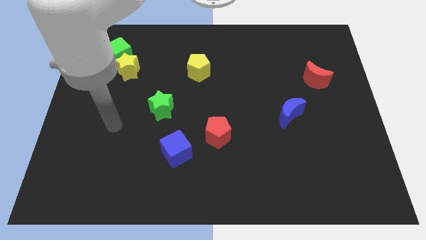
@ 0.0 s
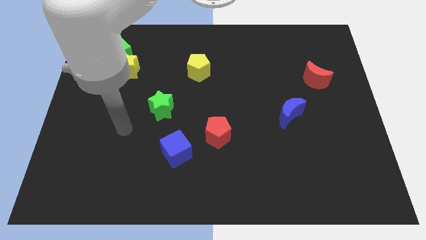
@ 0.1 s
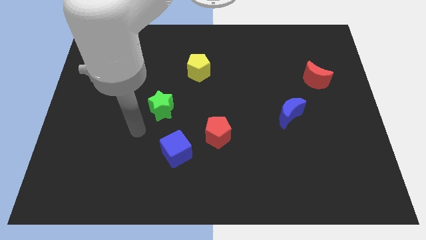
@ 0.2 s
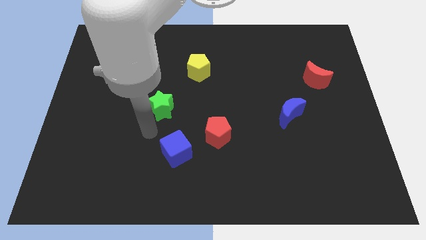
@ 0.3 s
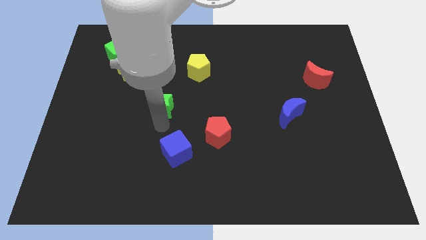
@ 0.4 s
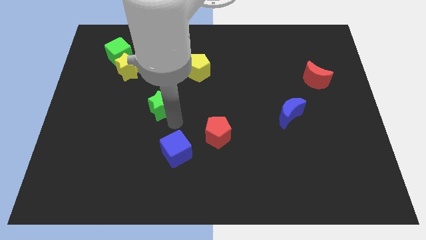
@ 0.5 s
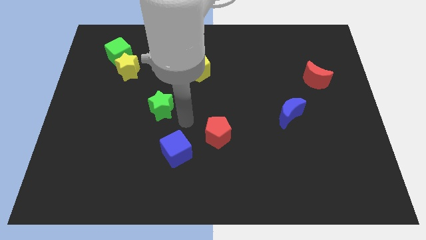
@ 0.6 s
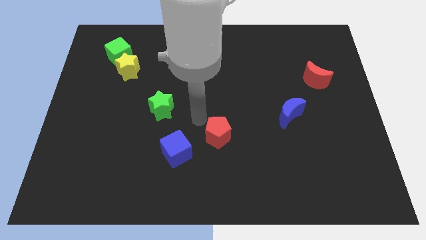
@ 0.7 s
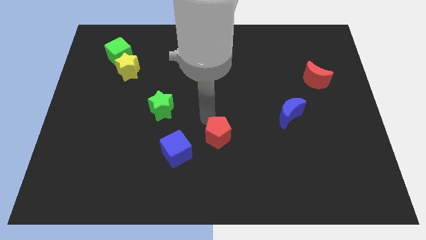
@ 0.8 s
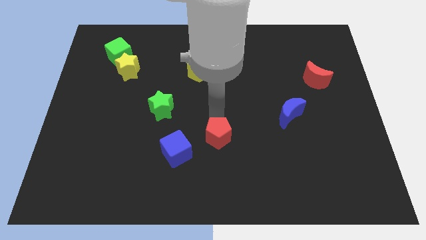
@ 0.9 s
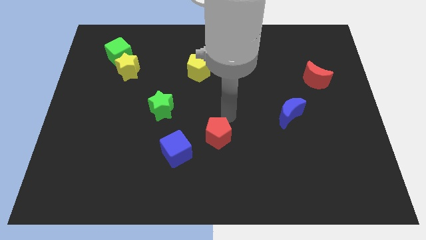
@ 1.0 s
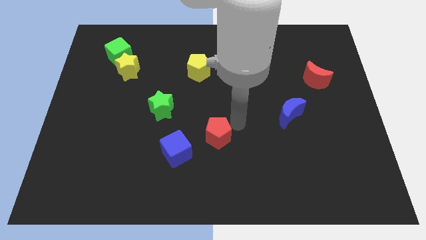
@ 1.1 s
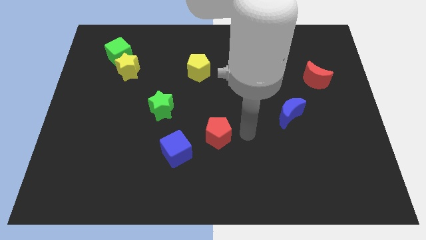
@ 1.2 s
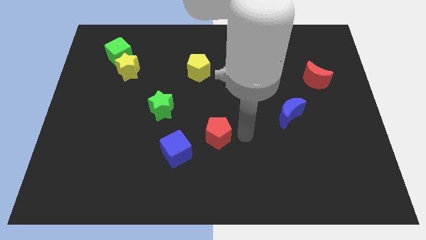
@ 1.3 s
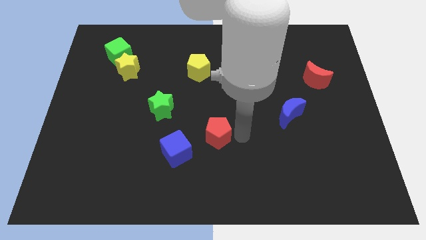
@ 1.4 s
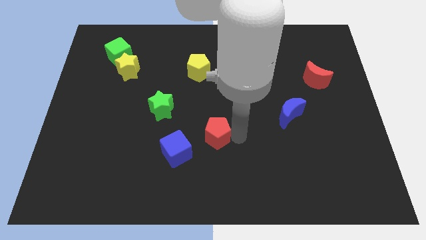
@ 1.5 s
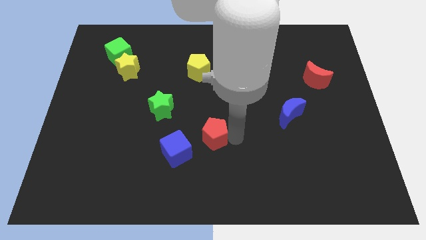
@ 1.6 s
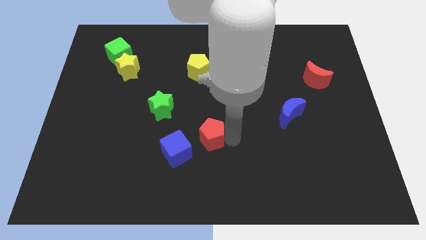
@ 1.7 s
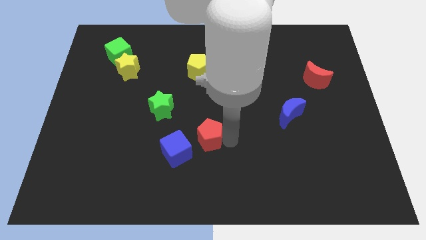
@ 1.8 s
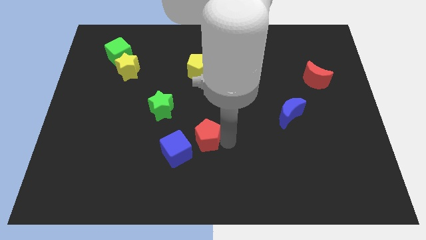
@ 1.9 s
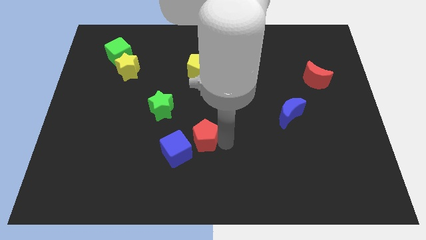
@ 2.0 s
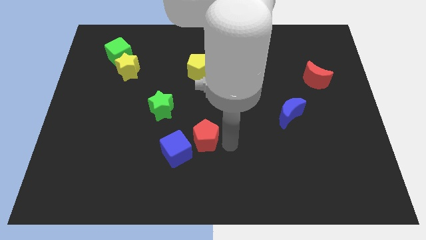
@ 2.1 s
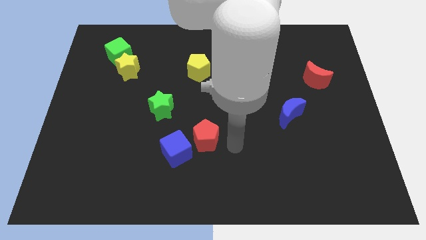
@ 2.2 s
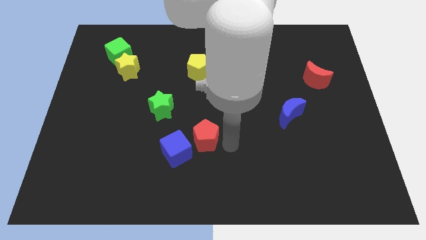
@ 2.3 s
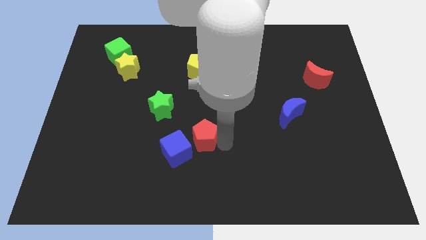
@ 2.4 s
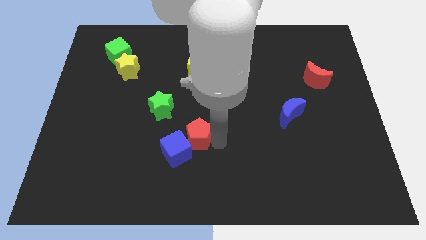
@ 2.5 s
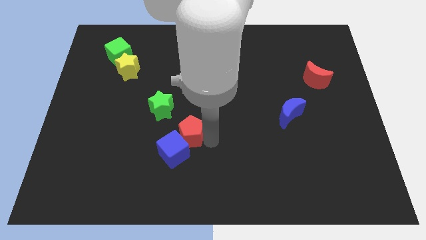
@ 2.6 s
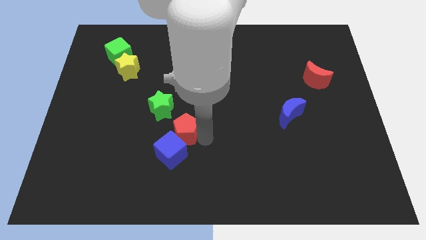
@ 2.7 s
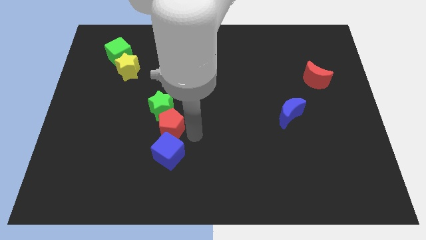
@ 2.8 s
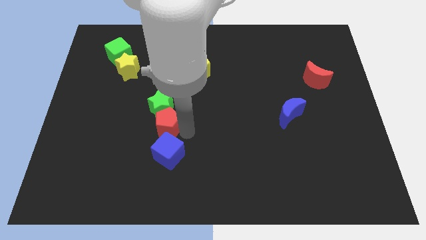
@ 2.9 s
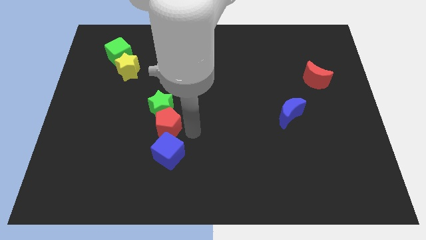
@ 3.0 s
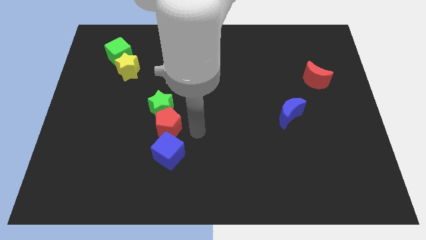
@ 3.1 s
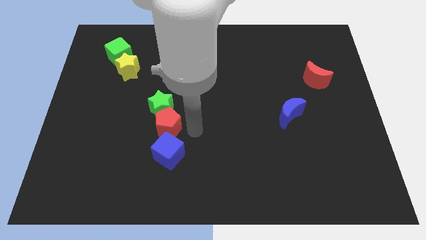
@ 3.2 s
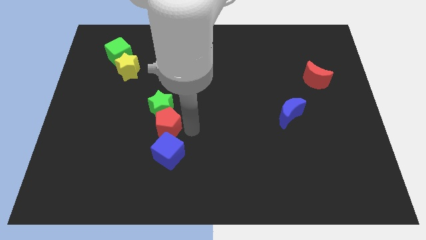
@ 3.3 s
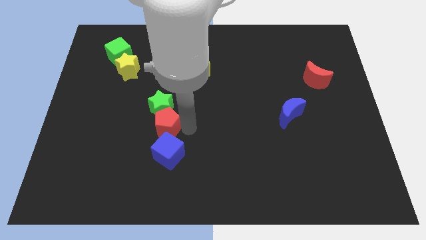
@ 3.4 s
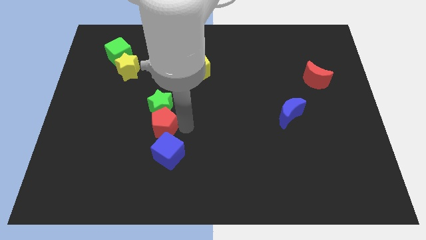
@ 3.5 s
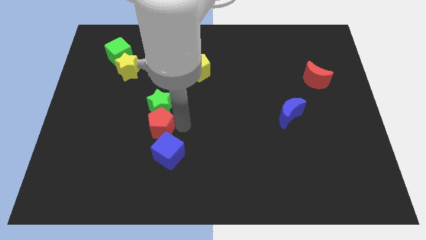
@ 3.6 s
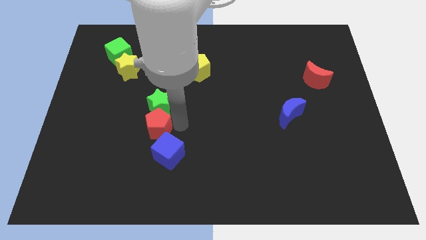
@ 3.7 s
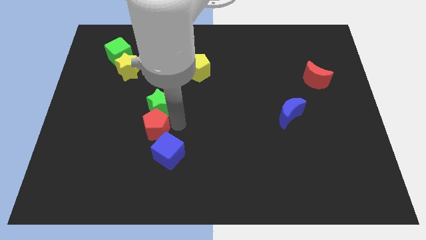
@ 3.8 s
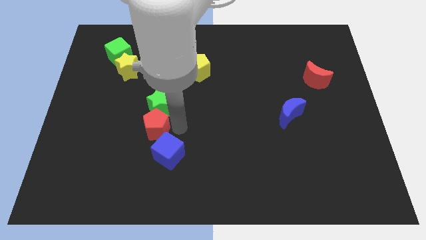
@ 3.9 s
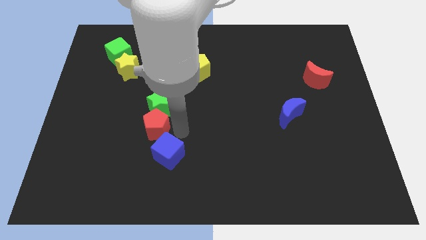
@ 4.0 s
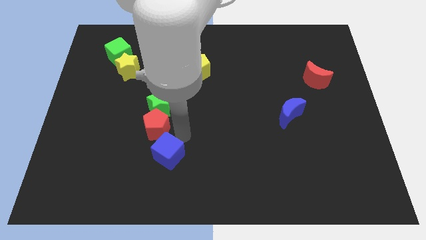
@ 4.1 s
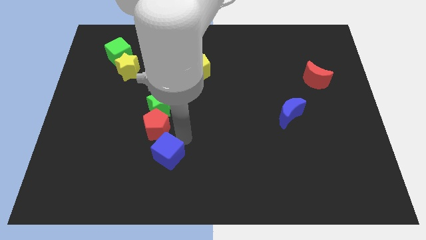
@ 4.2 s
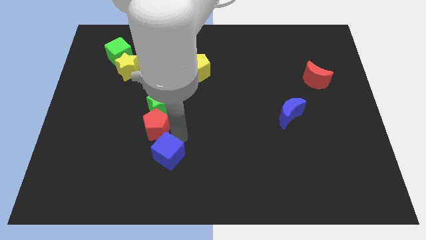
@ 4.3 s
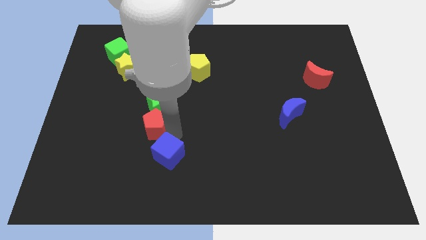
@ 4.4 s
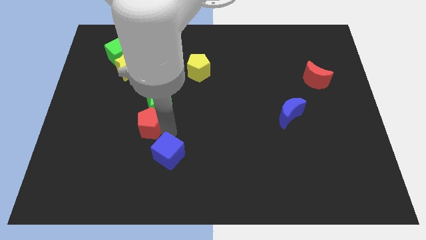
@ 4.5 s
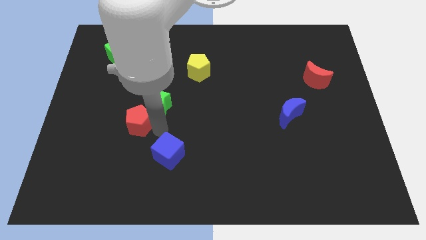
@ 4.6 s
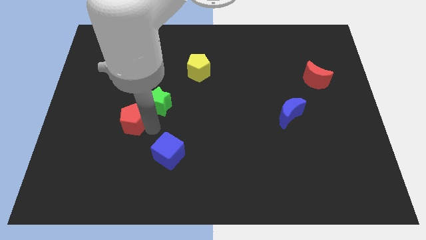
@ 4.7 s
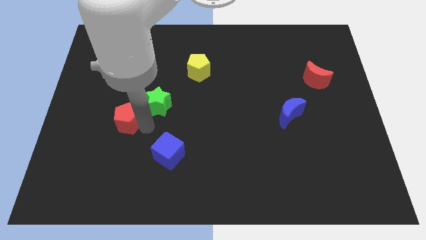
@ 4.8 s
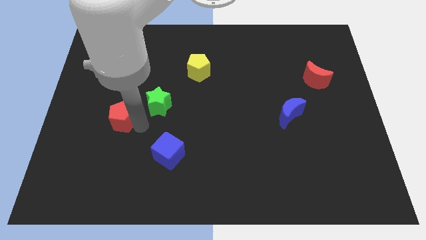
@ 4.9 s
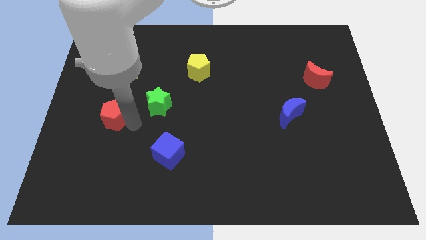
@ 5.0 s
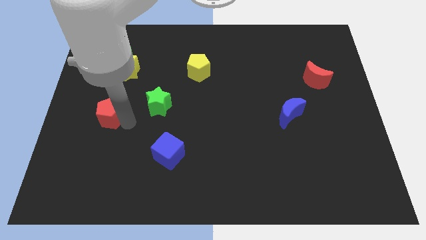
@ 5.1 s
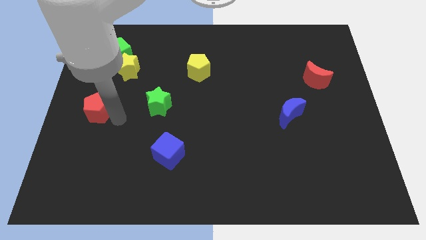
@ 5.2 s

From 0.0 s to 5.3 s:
push the red pentagon to the left side of the board

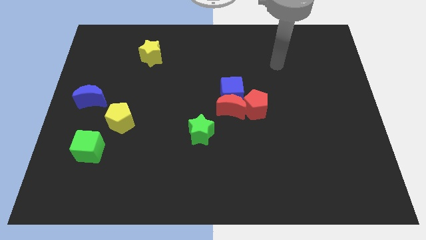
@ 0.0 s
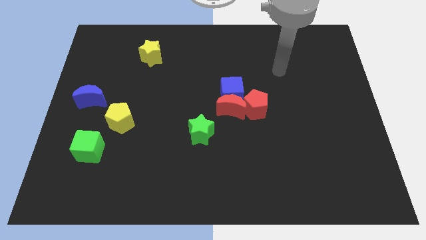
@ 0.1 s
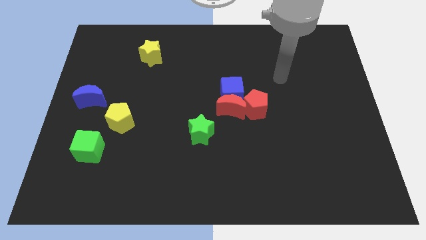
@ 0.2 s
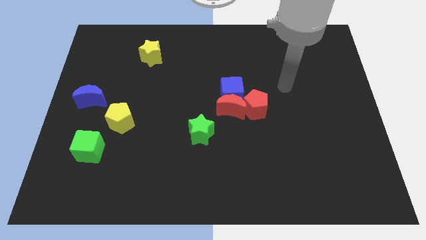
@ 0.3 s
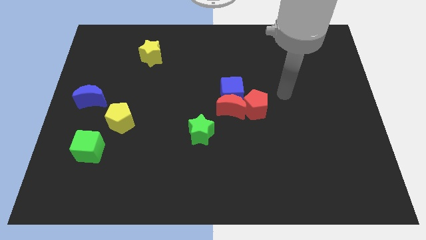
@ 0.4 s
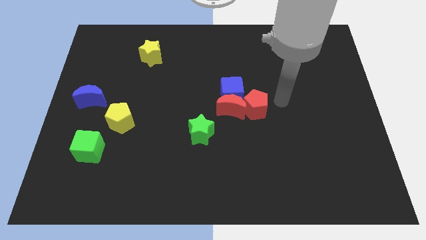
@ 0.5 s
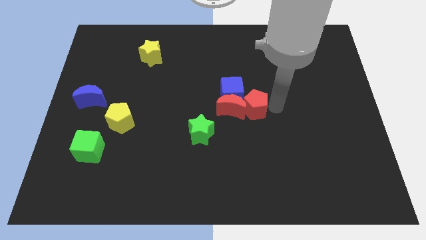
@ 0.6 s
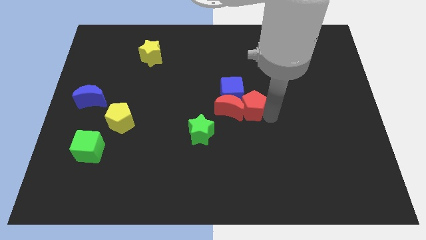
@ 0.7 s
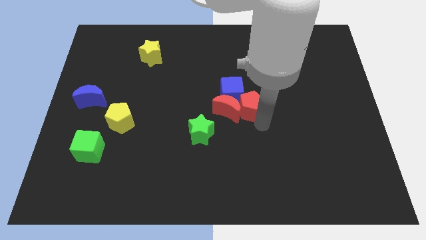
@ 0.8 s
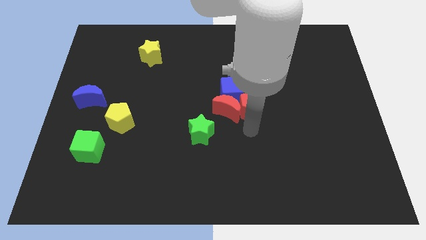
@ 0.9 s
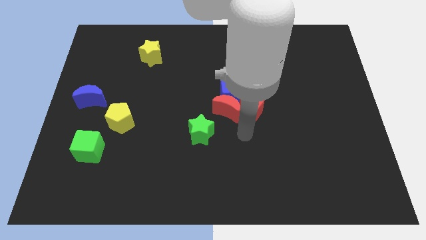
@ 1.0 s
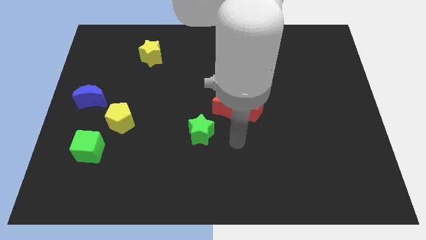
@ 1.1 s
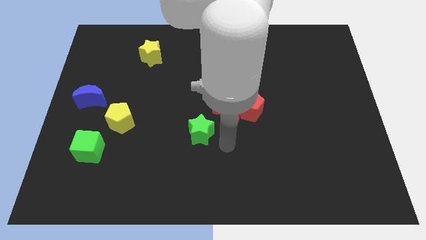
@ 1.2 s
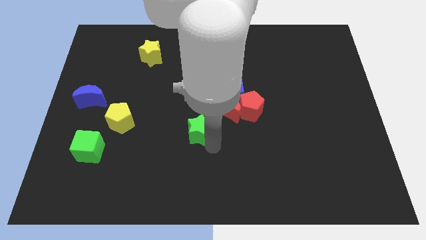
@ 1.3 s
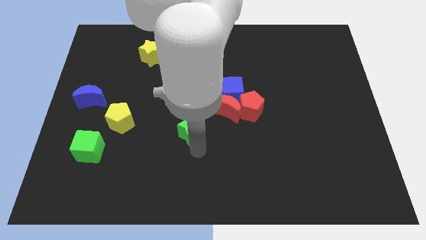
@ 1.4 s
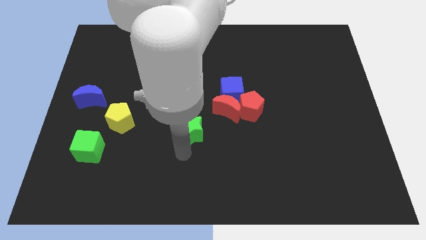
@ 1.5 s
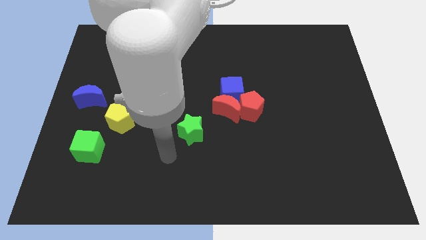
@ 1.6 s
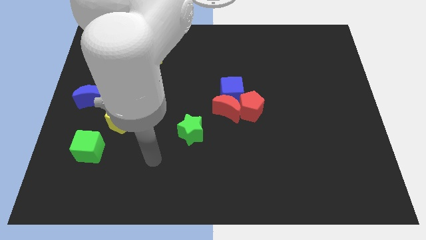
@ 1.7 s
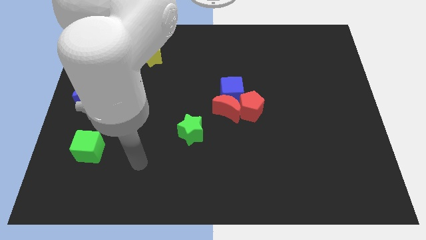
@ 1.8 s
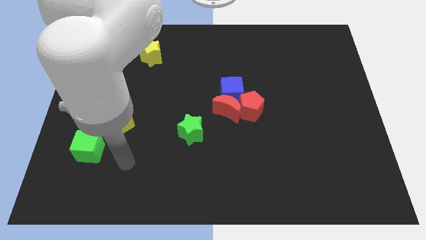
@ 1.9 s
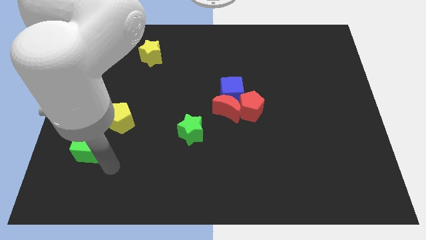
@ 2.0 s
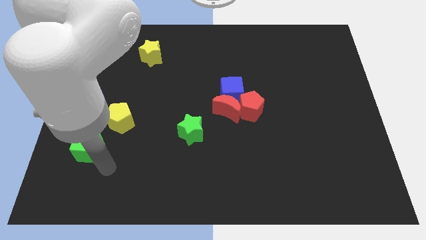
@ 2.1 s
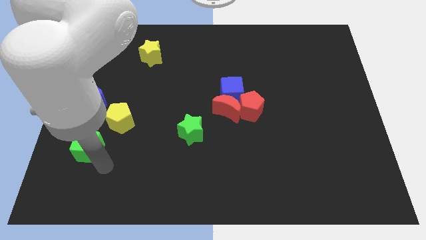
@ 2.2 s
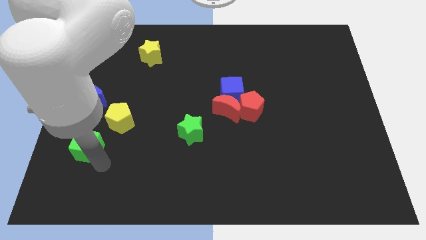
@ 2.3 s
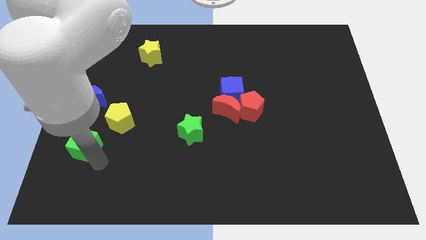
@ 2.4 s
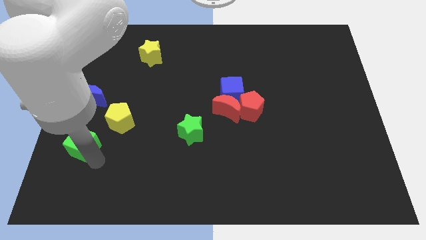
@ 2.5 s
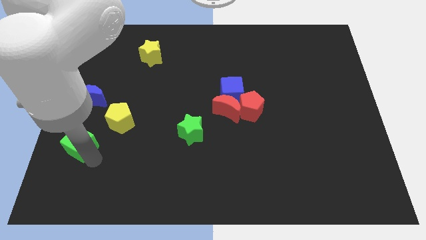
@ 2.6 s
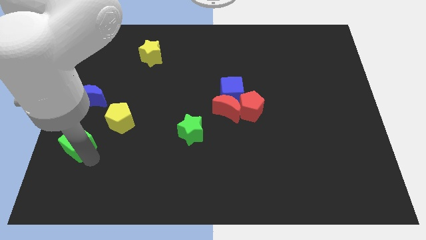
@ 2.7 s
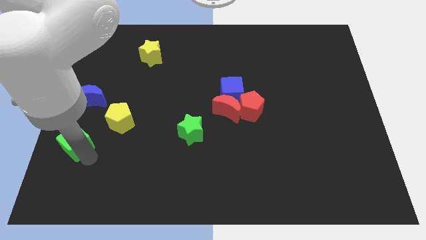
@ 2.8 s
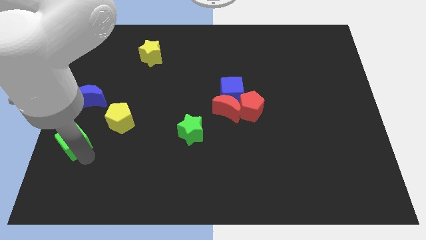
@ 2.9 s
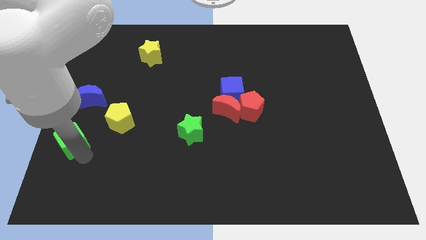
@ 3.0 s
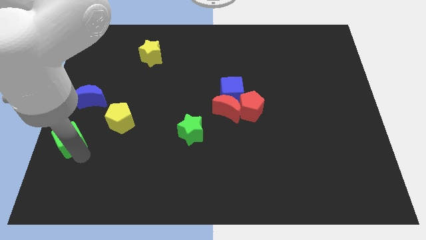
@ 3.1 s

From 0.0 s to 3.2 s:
slide the green cube to the center left
